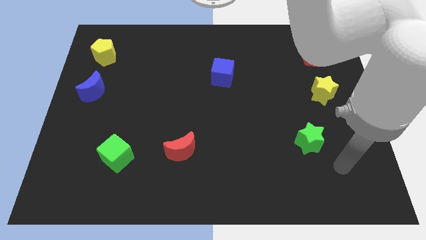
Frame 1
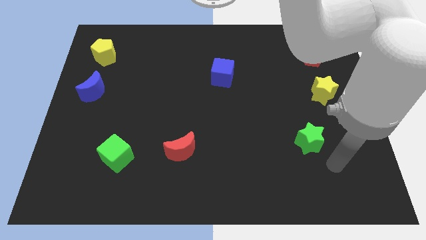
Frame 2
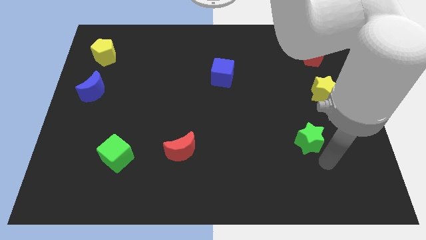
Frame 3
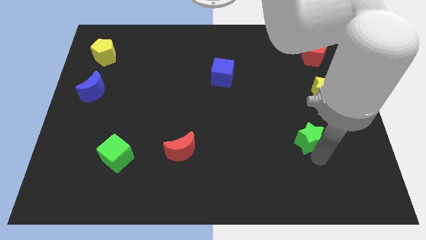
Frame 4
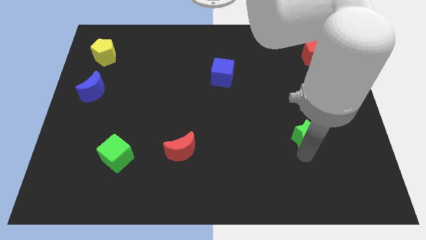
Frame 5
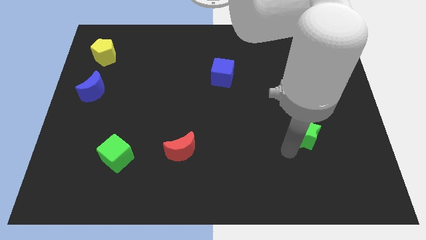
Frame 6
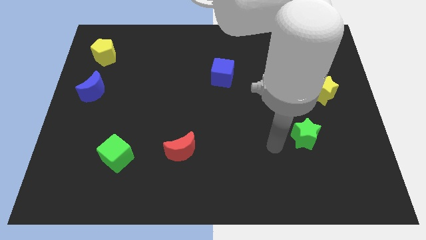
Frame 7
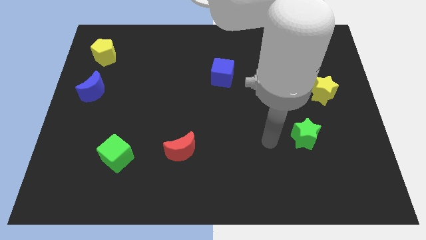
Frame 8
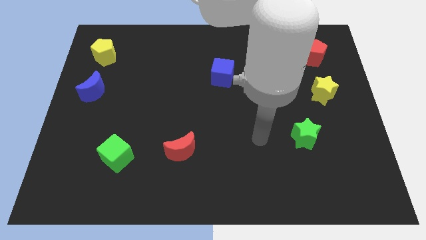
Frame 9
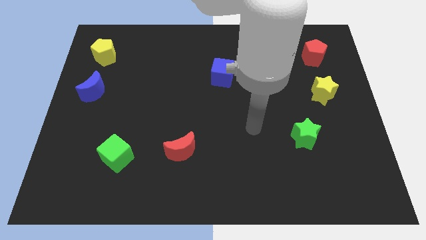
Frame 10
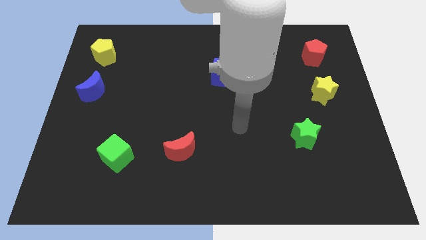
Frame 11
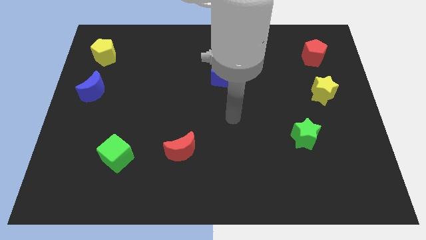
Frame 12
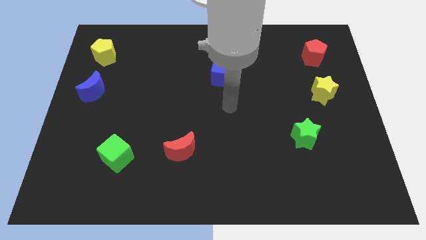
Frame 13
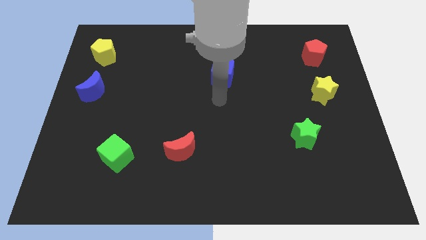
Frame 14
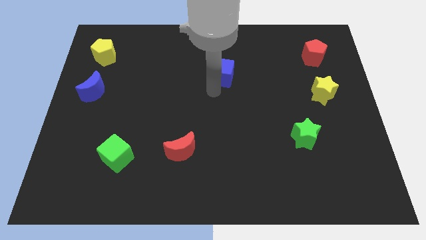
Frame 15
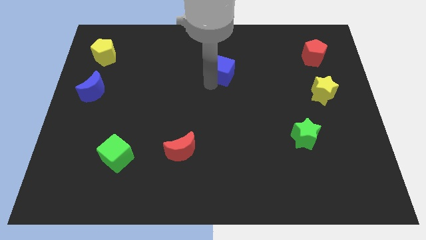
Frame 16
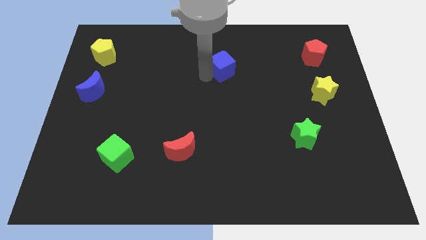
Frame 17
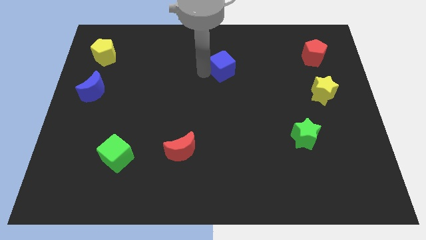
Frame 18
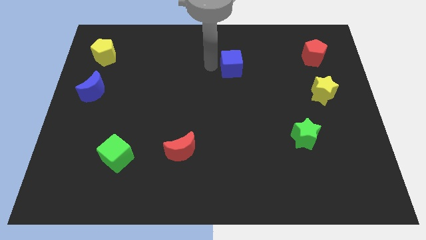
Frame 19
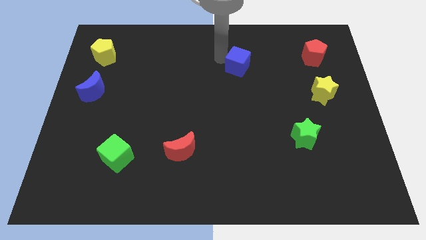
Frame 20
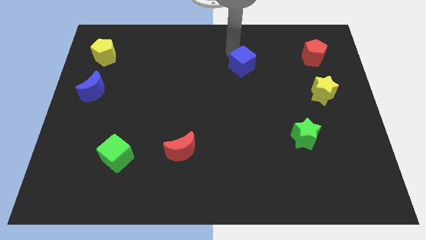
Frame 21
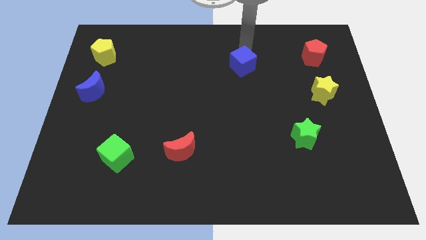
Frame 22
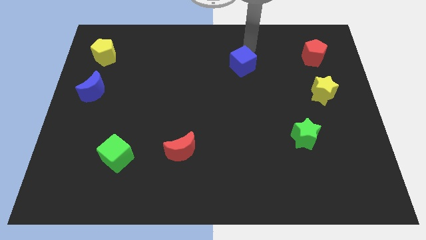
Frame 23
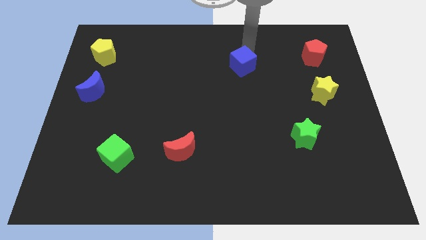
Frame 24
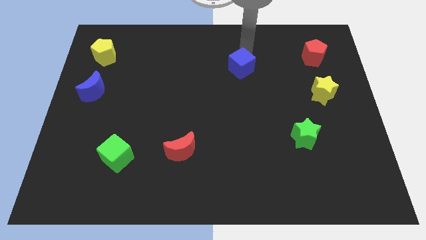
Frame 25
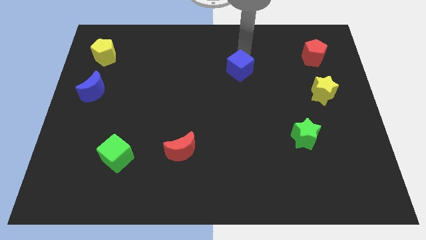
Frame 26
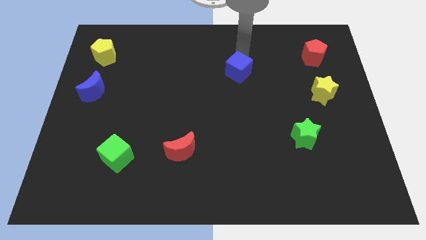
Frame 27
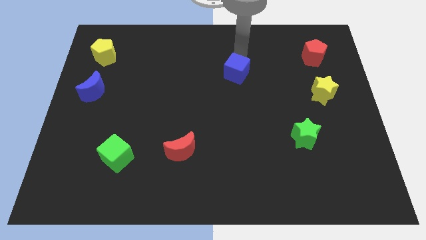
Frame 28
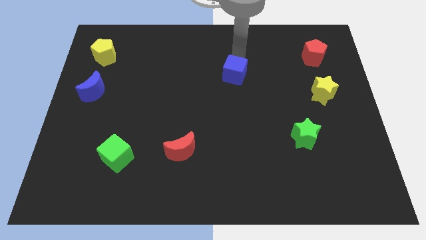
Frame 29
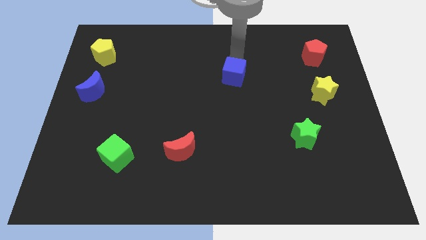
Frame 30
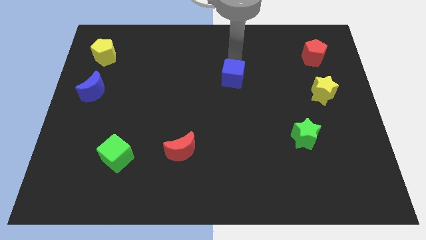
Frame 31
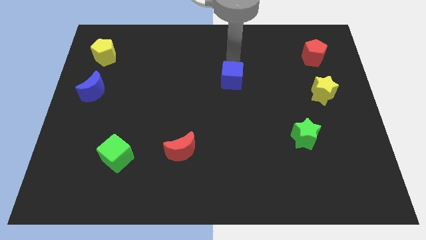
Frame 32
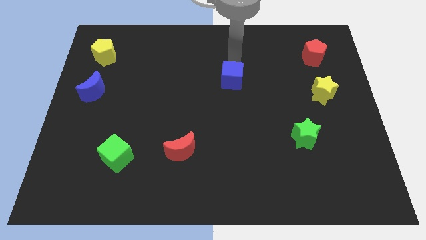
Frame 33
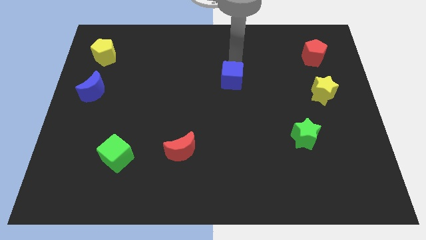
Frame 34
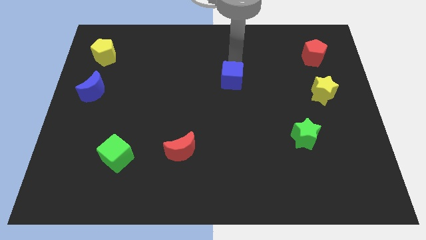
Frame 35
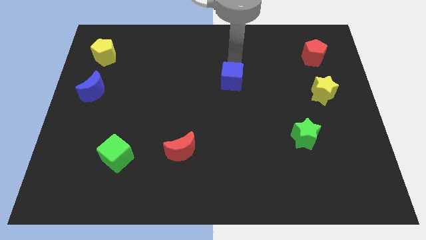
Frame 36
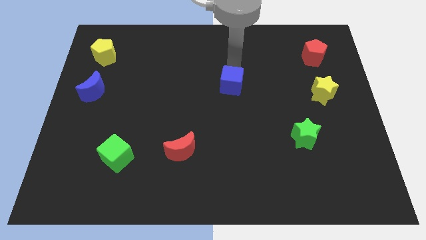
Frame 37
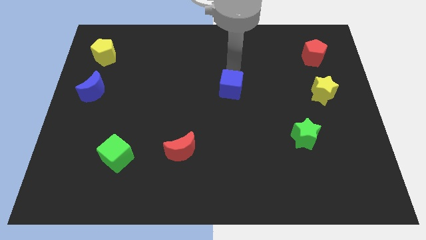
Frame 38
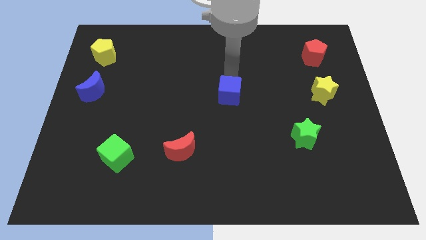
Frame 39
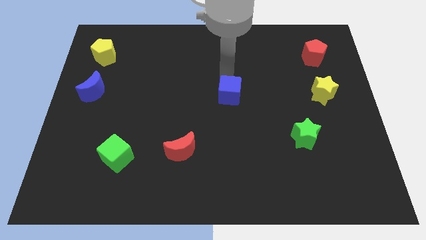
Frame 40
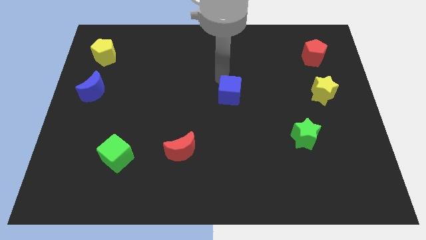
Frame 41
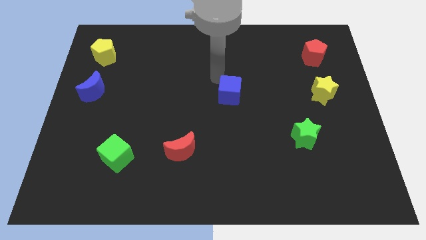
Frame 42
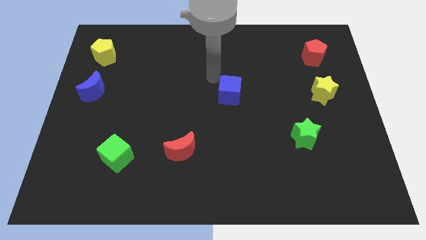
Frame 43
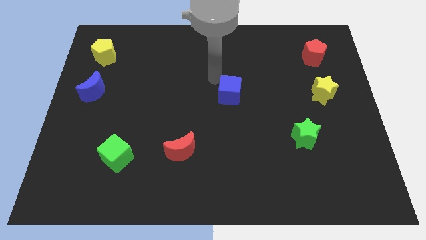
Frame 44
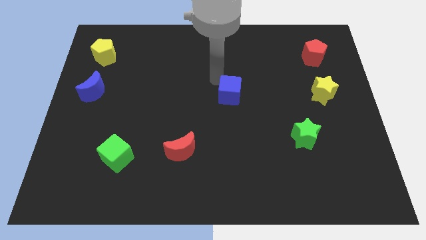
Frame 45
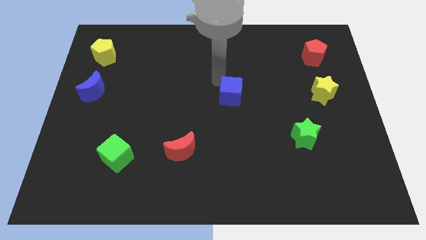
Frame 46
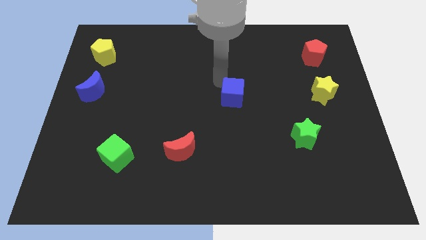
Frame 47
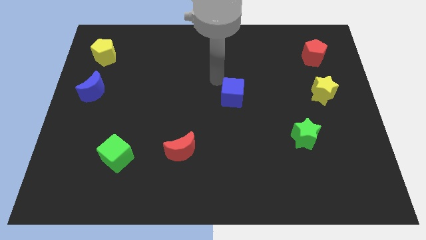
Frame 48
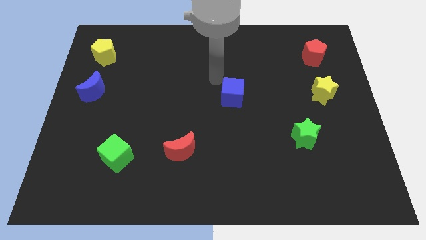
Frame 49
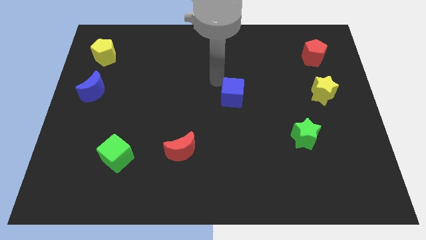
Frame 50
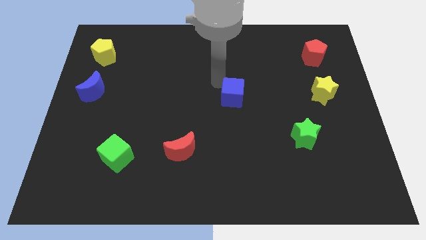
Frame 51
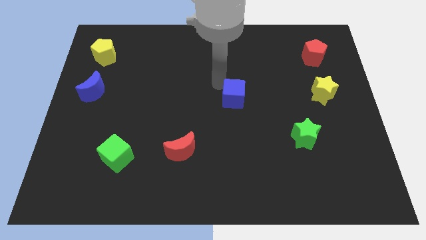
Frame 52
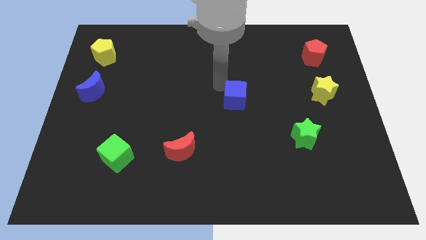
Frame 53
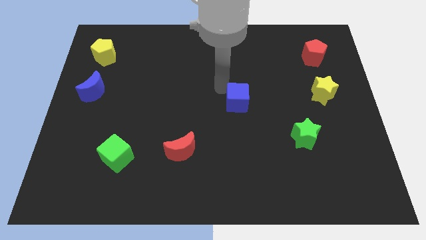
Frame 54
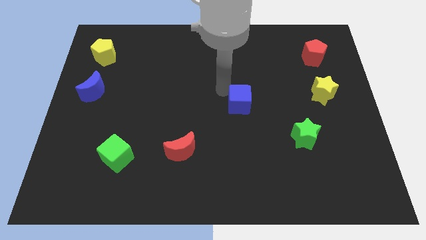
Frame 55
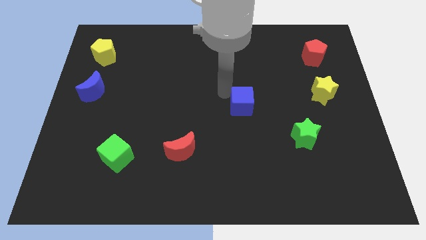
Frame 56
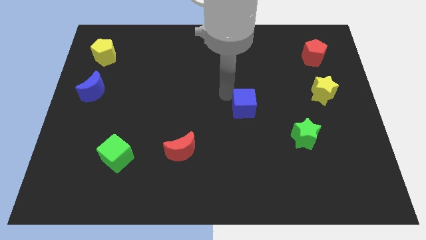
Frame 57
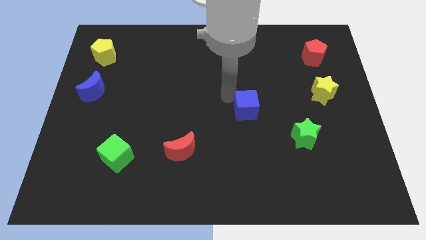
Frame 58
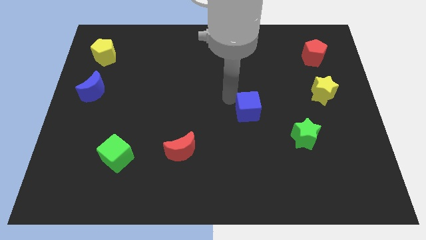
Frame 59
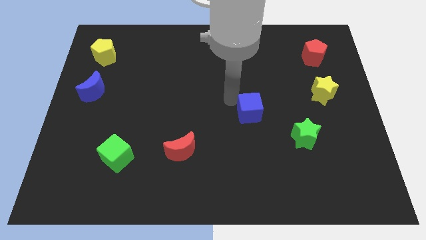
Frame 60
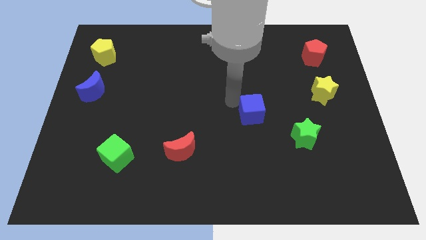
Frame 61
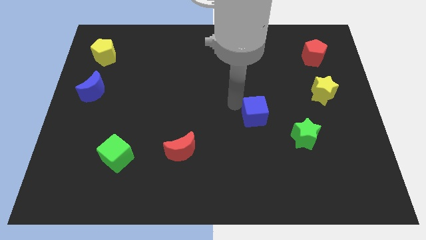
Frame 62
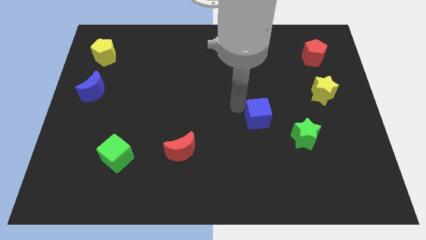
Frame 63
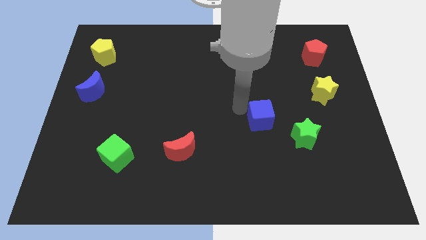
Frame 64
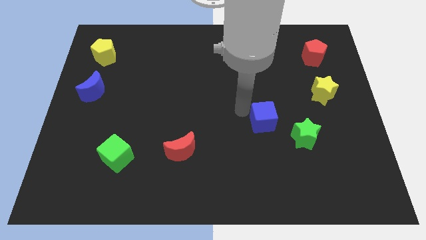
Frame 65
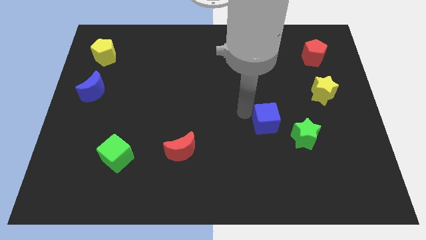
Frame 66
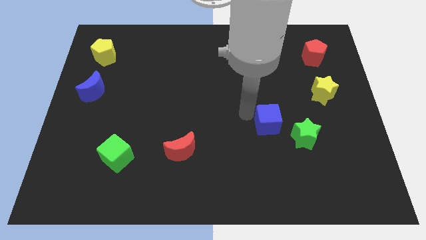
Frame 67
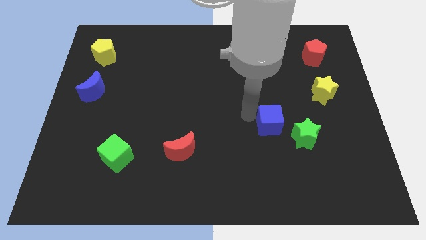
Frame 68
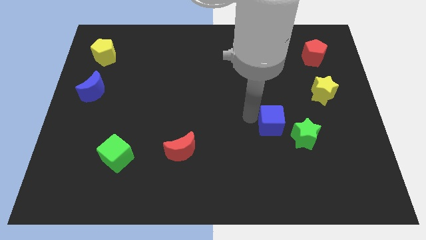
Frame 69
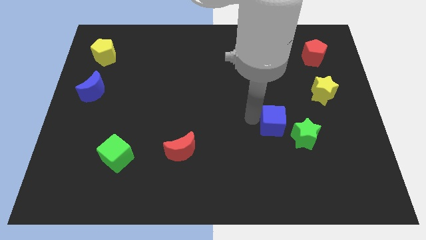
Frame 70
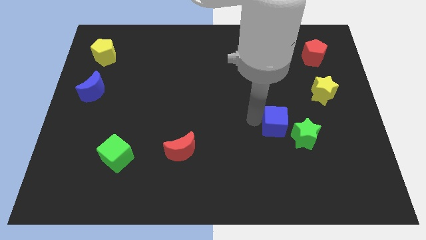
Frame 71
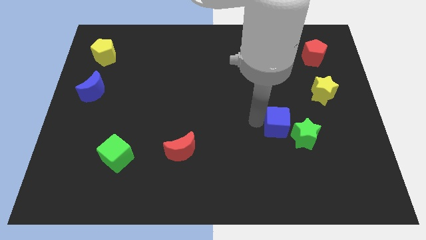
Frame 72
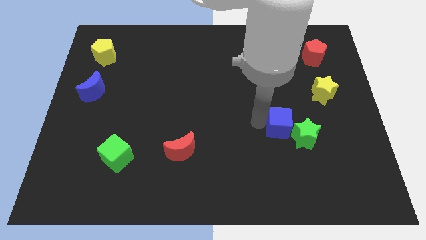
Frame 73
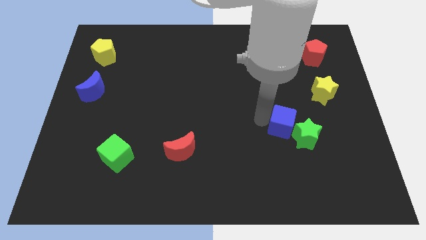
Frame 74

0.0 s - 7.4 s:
push the blue cube down and then right

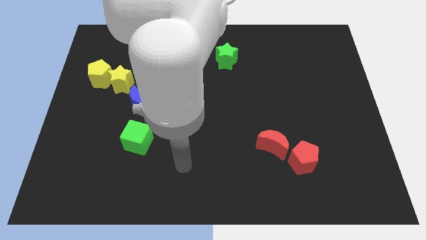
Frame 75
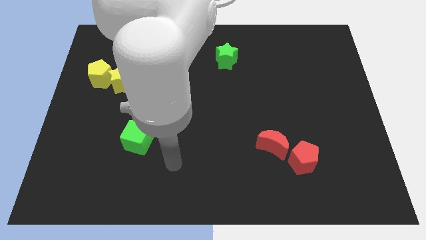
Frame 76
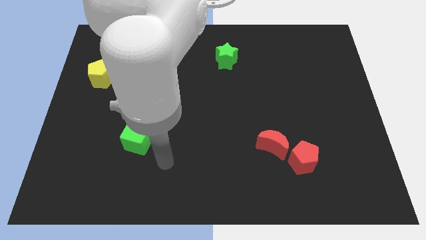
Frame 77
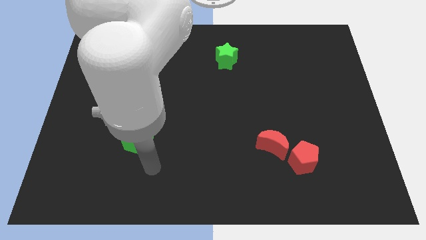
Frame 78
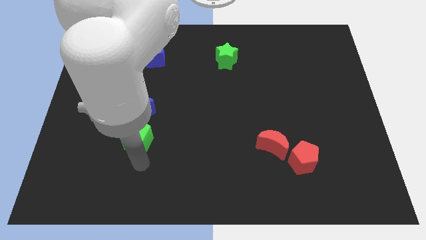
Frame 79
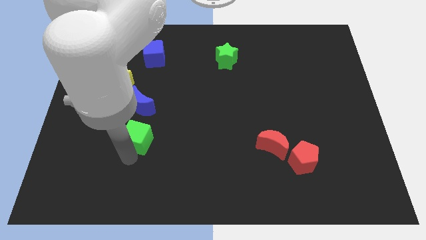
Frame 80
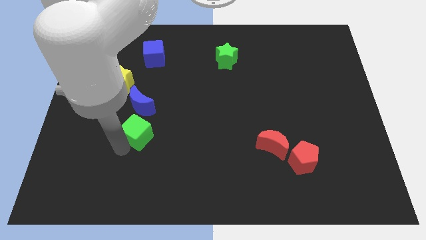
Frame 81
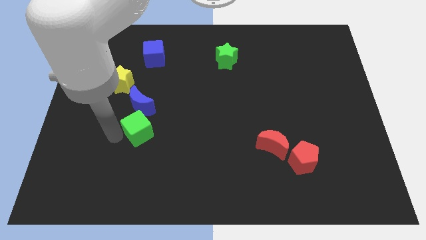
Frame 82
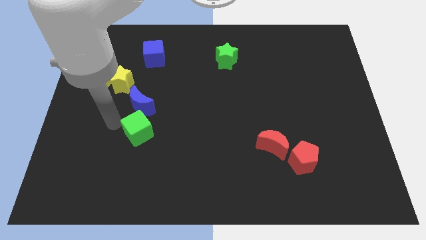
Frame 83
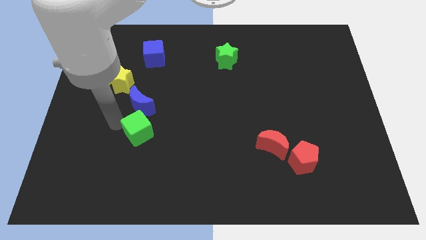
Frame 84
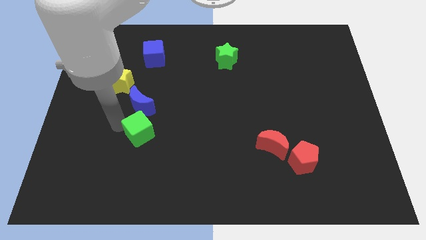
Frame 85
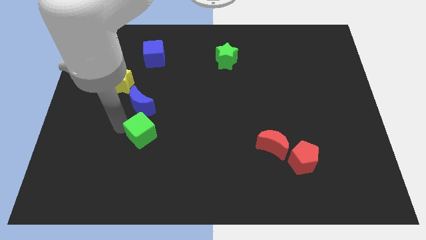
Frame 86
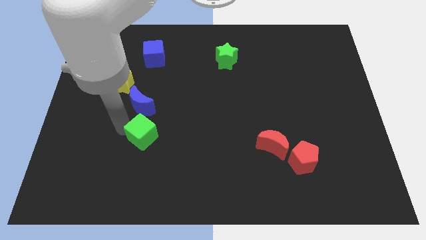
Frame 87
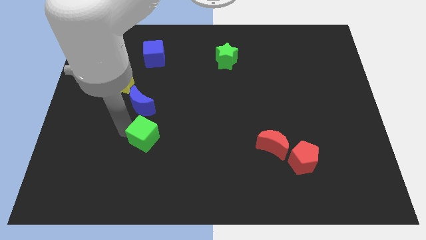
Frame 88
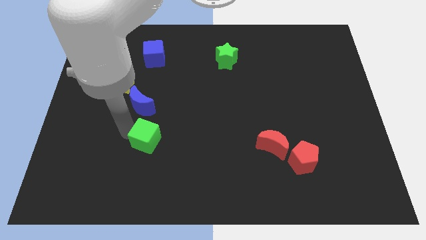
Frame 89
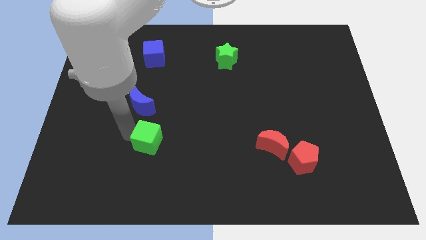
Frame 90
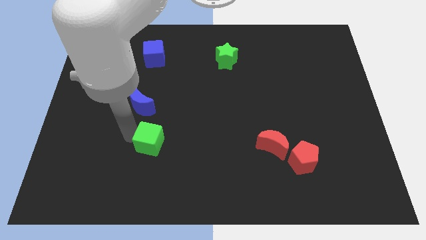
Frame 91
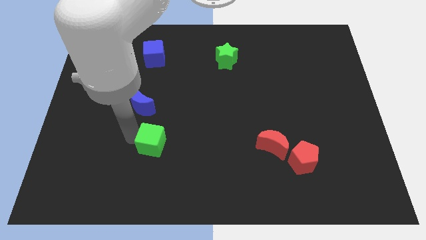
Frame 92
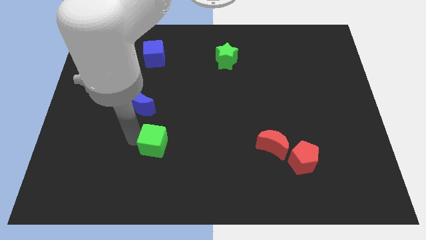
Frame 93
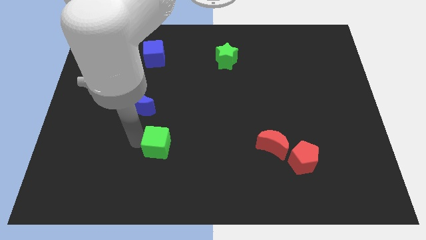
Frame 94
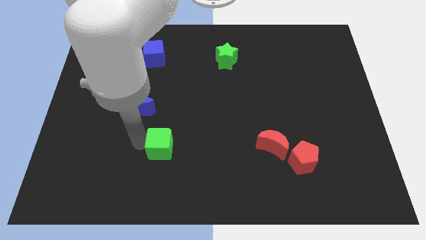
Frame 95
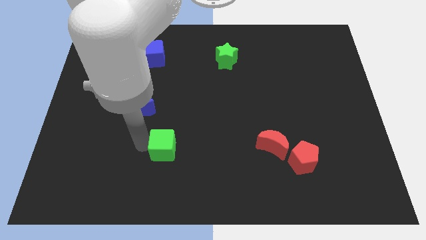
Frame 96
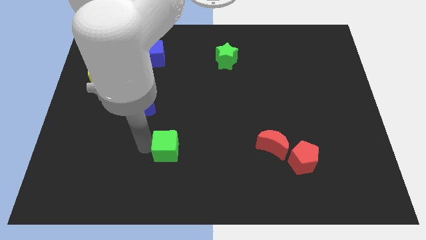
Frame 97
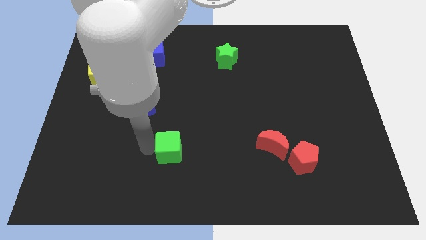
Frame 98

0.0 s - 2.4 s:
slide the green cube a little to the right
